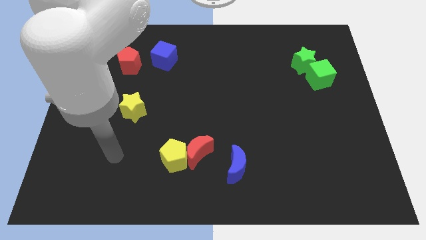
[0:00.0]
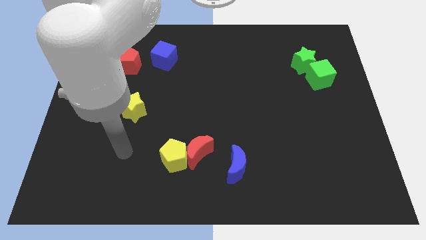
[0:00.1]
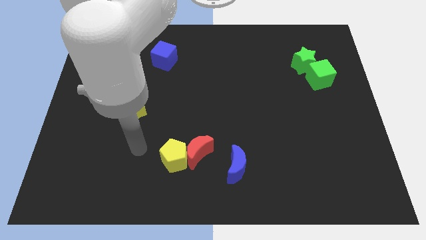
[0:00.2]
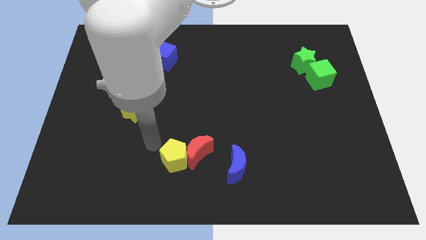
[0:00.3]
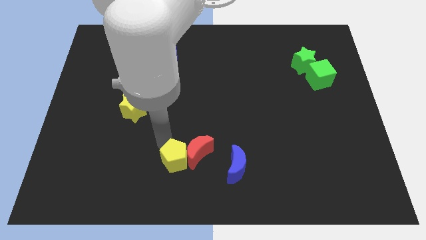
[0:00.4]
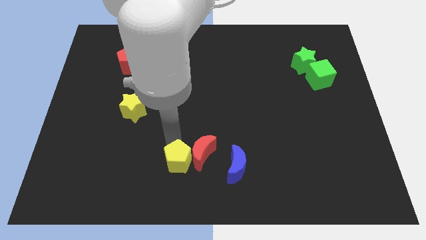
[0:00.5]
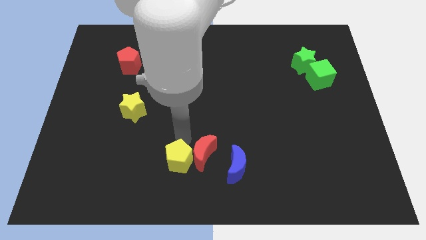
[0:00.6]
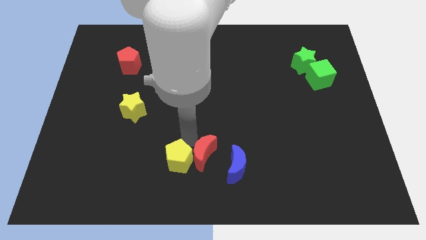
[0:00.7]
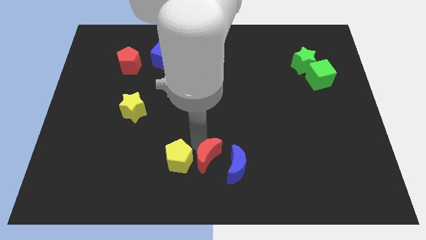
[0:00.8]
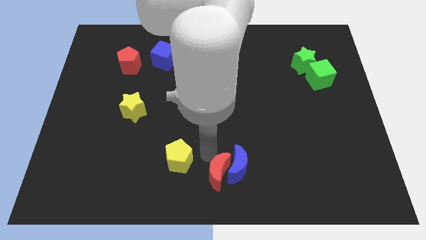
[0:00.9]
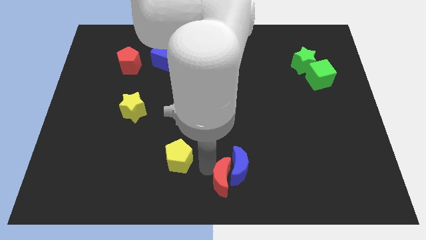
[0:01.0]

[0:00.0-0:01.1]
move the yellow pentagon away from the red moon

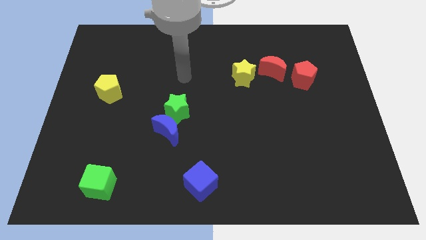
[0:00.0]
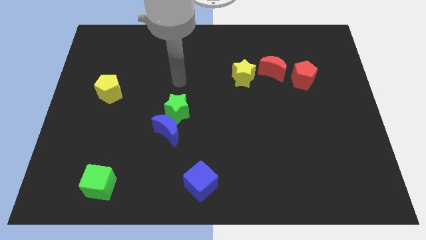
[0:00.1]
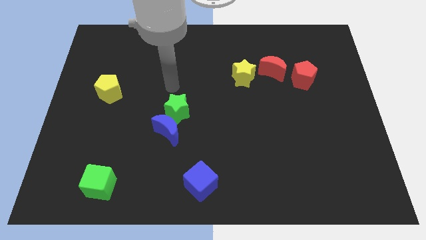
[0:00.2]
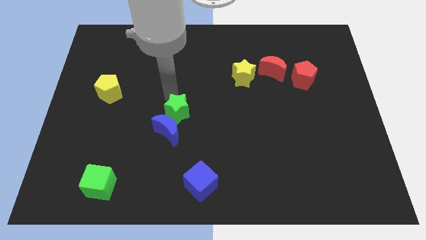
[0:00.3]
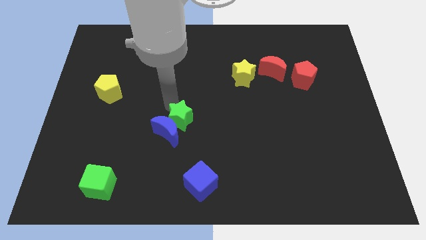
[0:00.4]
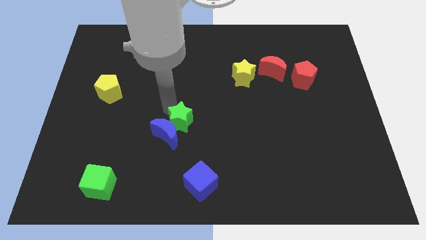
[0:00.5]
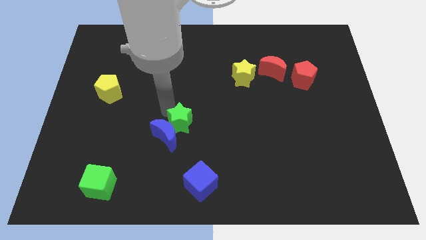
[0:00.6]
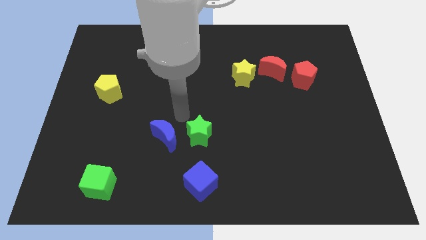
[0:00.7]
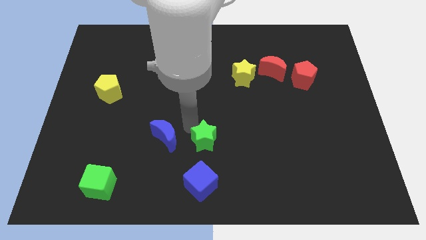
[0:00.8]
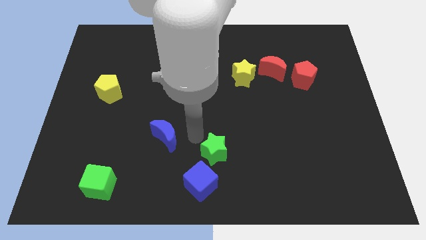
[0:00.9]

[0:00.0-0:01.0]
separate the blue moon from the green star

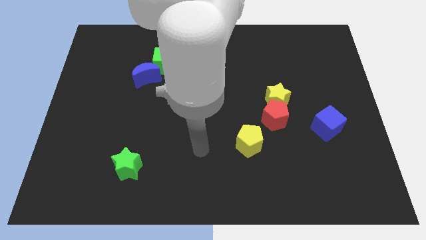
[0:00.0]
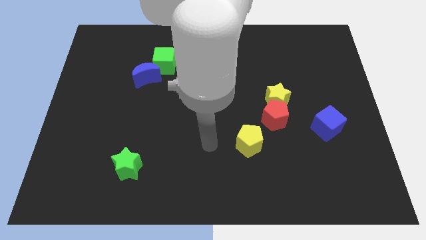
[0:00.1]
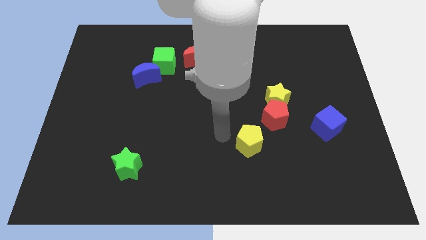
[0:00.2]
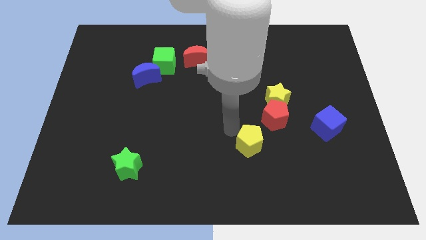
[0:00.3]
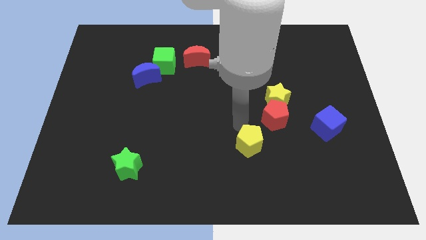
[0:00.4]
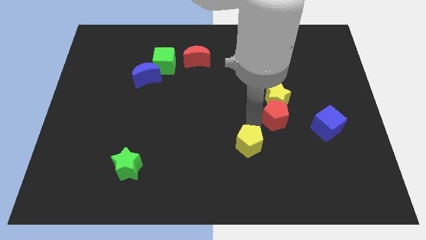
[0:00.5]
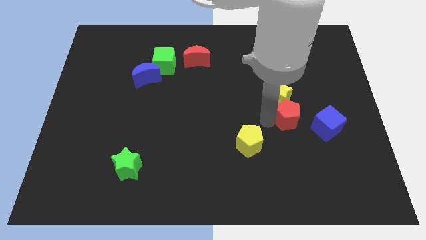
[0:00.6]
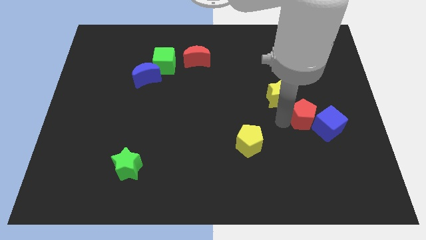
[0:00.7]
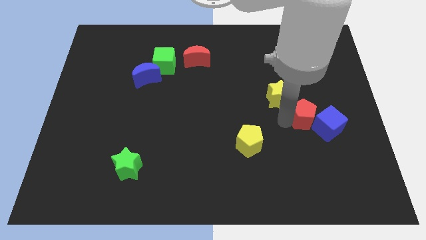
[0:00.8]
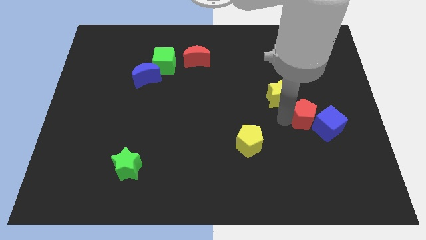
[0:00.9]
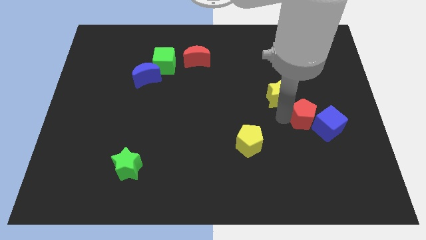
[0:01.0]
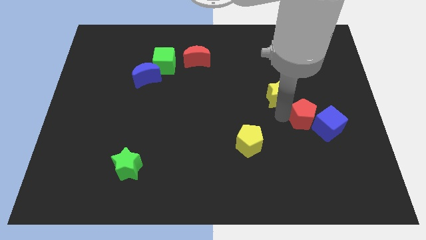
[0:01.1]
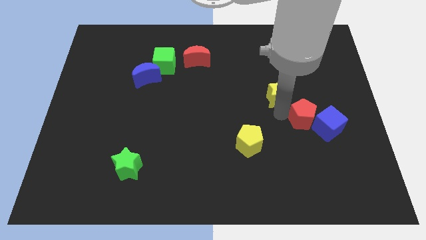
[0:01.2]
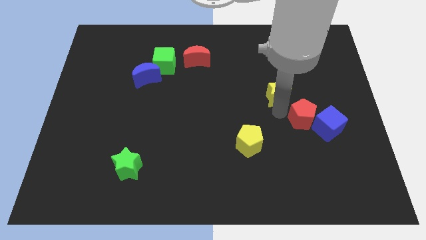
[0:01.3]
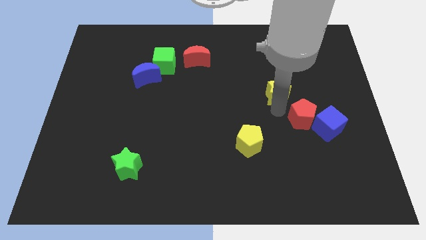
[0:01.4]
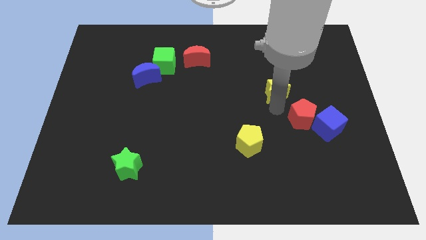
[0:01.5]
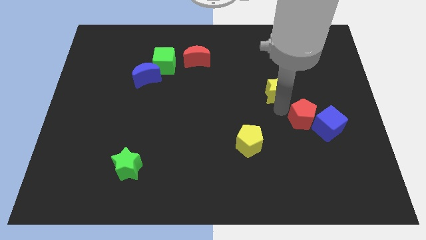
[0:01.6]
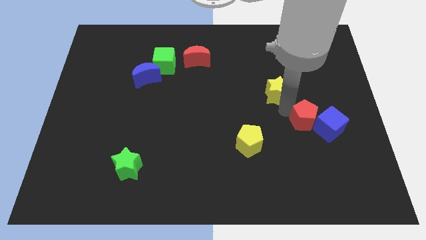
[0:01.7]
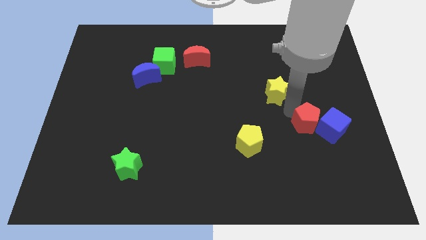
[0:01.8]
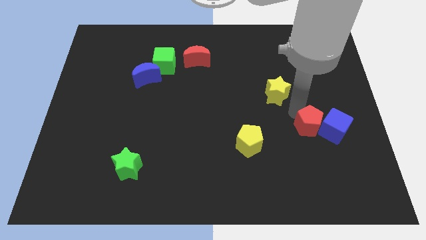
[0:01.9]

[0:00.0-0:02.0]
separate the yellow star from the red pentagon

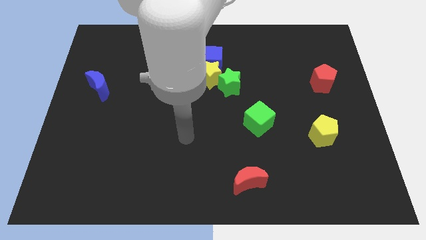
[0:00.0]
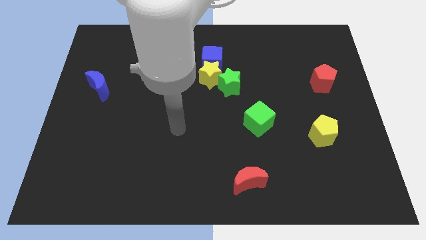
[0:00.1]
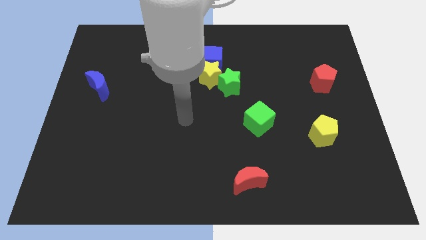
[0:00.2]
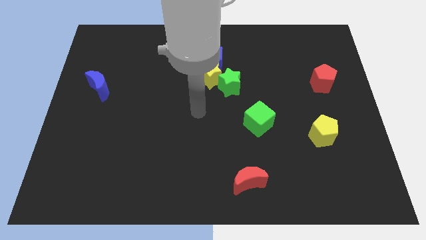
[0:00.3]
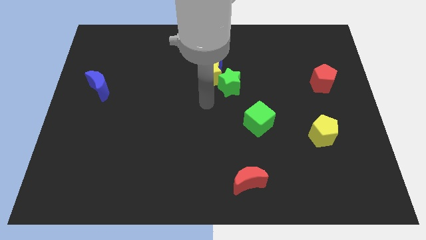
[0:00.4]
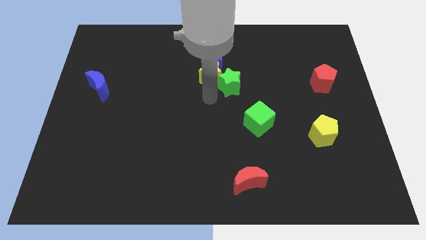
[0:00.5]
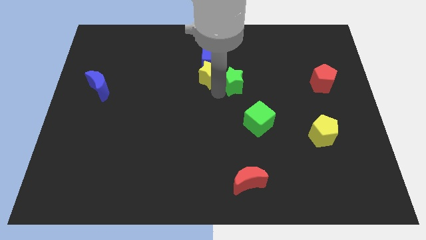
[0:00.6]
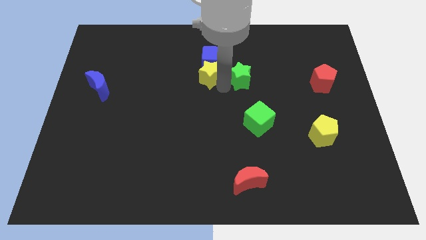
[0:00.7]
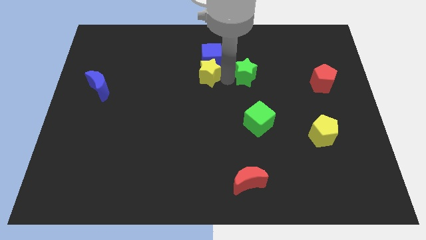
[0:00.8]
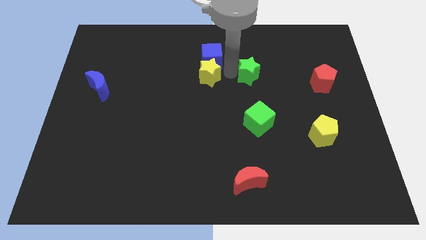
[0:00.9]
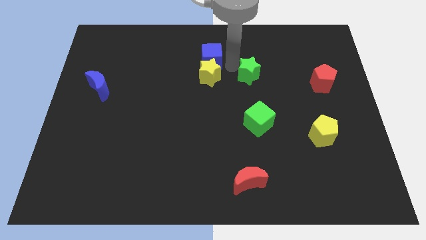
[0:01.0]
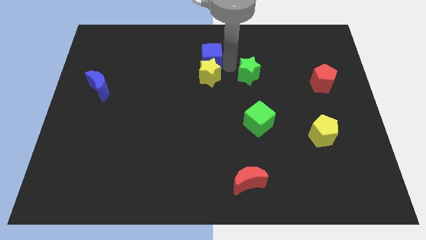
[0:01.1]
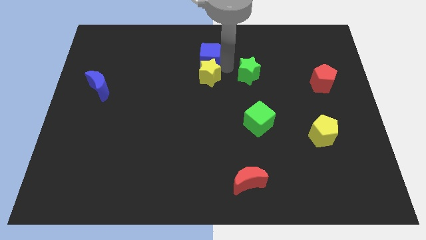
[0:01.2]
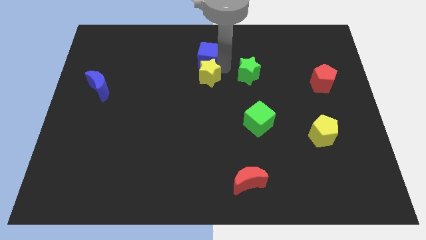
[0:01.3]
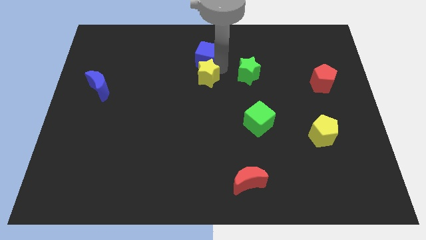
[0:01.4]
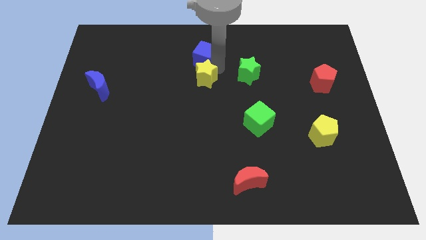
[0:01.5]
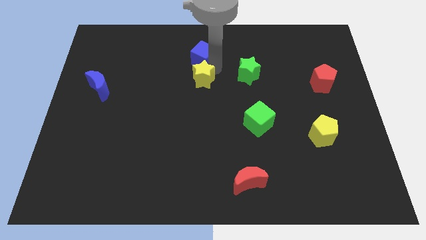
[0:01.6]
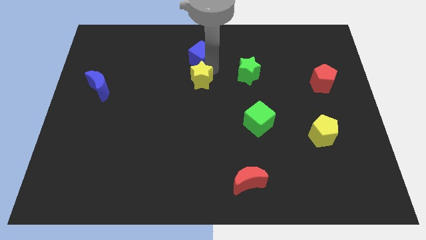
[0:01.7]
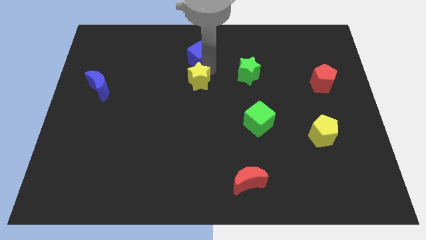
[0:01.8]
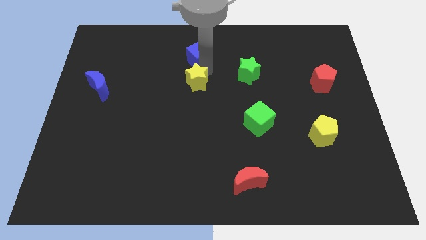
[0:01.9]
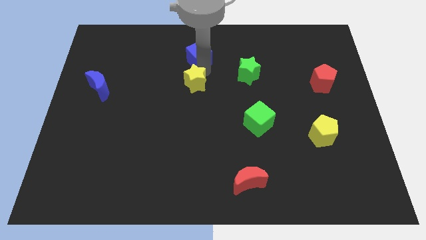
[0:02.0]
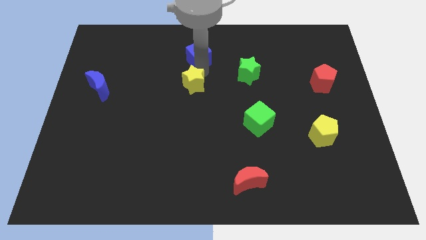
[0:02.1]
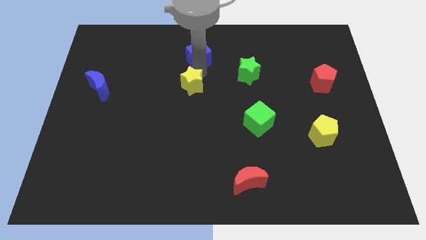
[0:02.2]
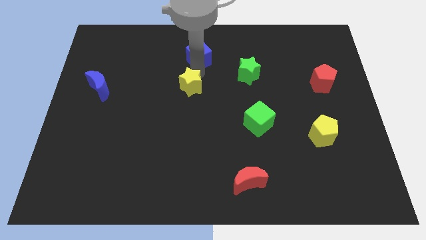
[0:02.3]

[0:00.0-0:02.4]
move the yellow star away from the blue cube and green star

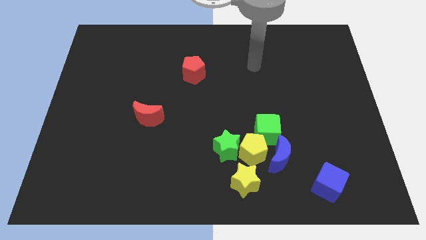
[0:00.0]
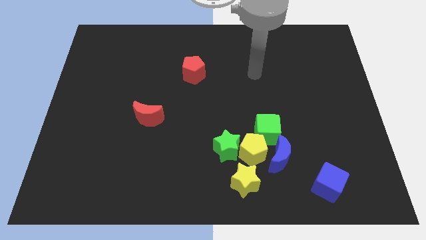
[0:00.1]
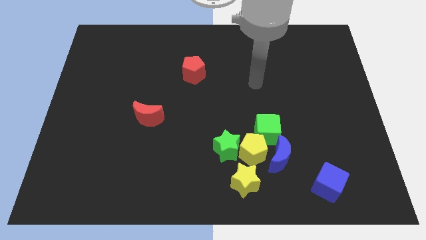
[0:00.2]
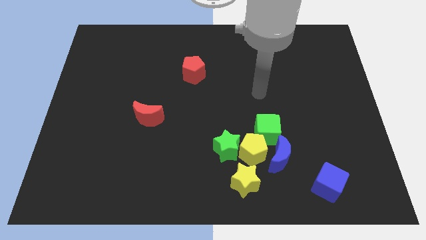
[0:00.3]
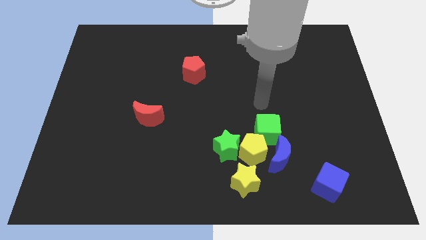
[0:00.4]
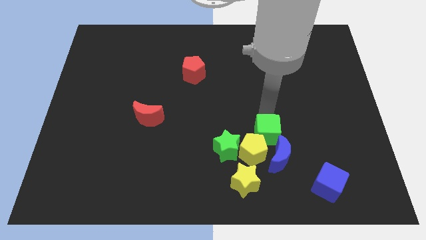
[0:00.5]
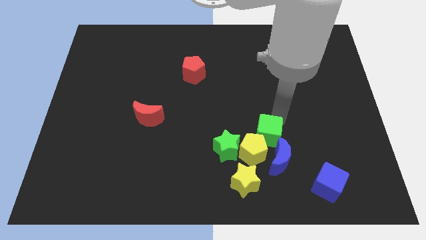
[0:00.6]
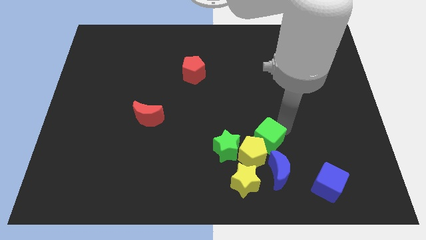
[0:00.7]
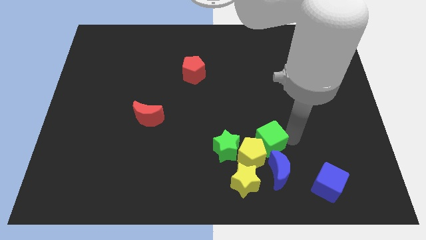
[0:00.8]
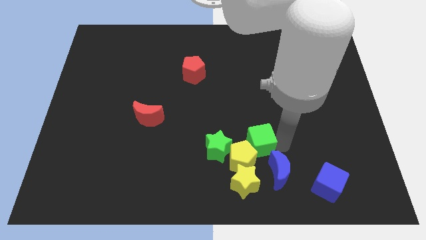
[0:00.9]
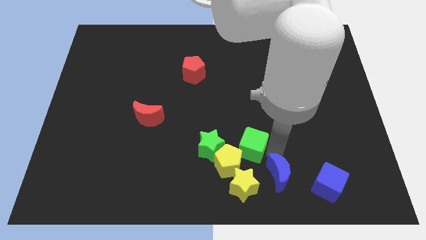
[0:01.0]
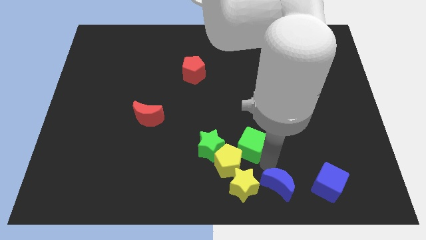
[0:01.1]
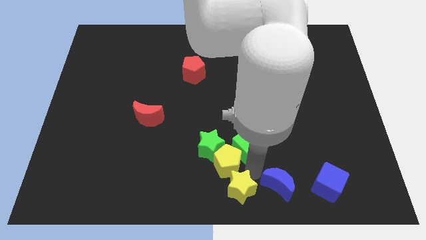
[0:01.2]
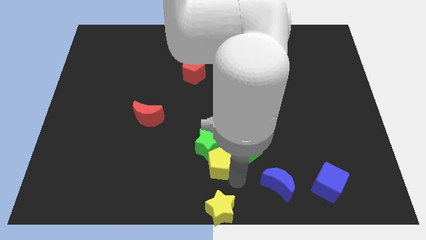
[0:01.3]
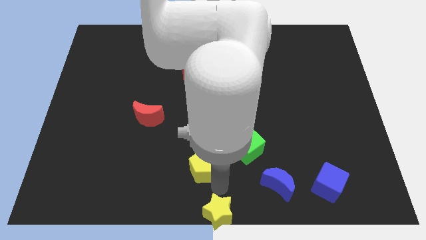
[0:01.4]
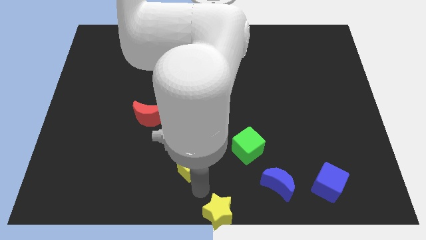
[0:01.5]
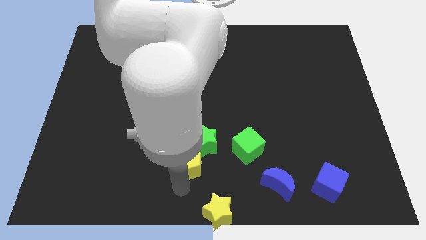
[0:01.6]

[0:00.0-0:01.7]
pull the yellow pentagon apart from the clump

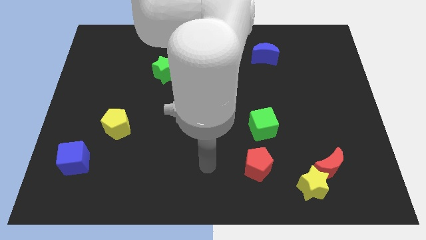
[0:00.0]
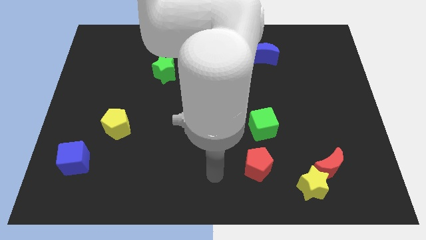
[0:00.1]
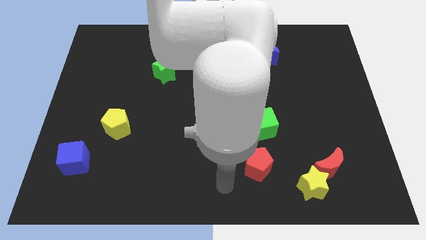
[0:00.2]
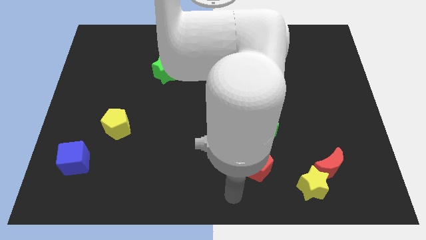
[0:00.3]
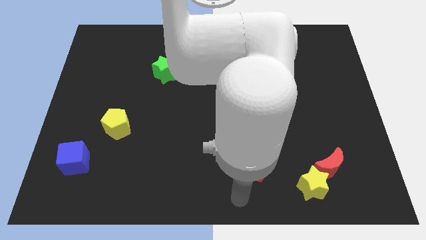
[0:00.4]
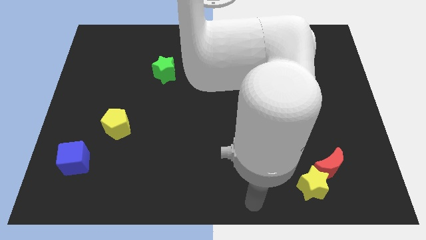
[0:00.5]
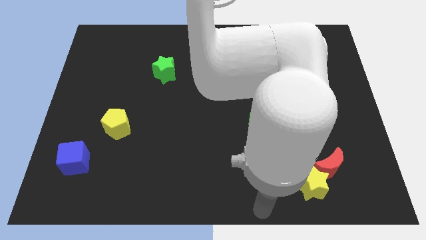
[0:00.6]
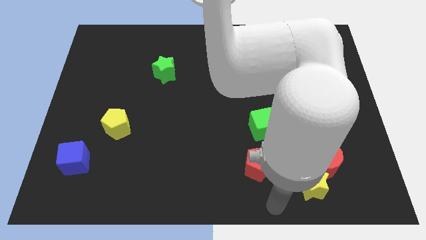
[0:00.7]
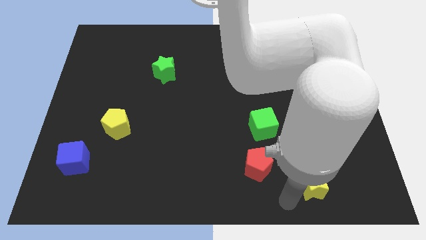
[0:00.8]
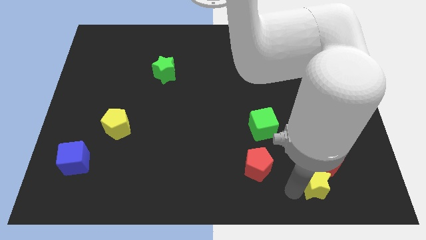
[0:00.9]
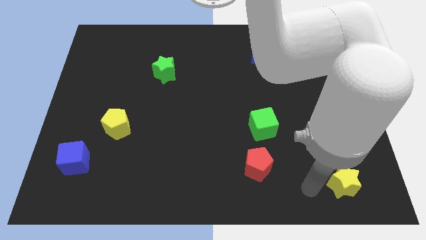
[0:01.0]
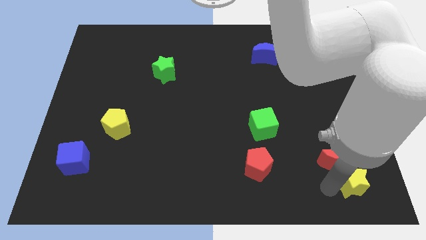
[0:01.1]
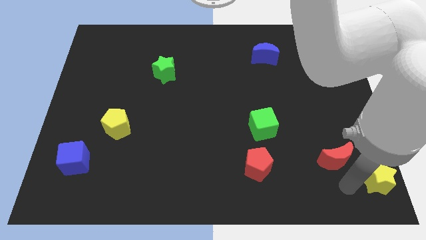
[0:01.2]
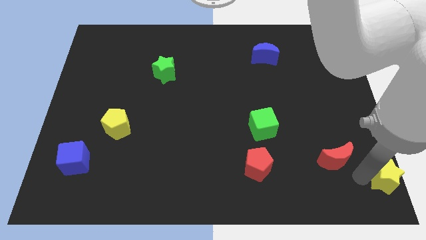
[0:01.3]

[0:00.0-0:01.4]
separate the red moon from the yellow star
